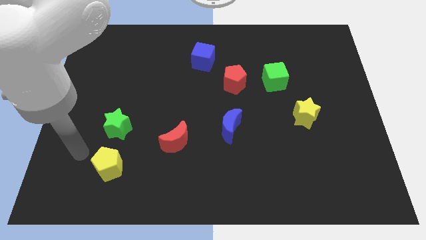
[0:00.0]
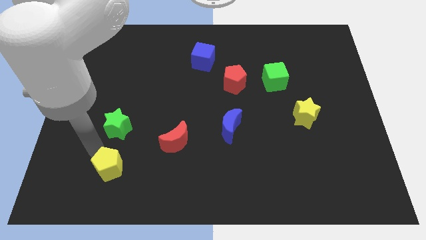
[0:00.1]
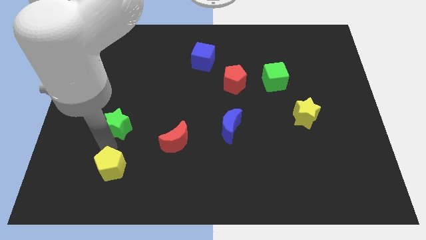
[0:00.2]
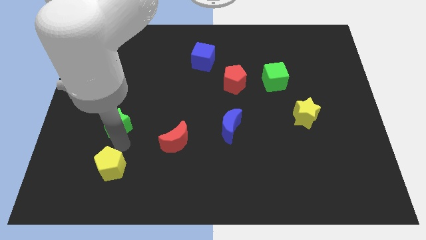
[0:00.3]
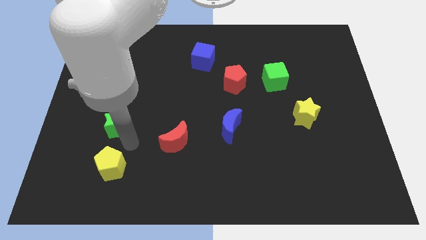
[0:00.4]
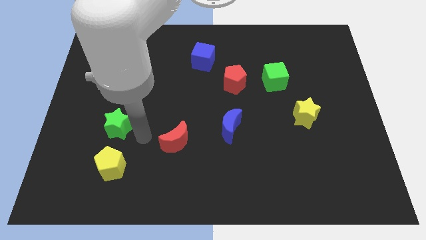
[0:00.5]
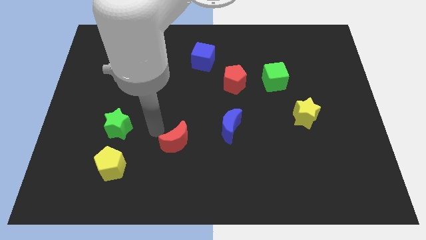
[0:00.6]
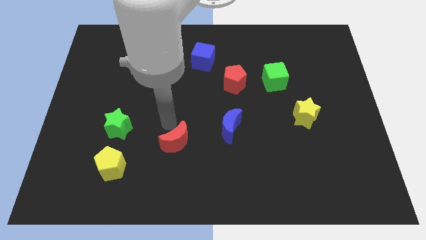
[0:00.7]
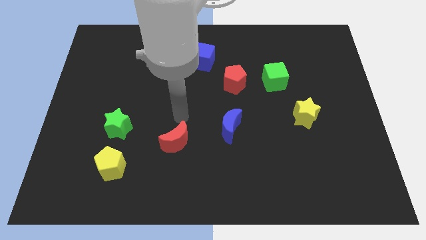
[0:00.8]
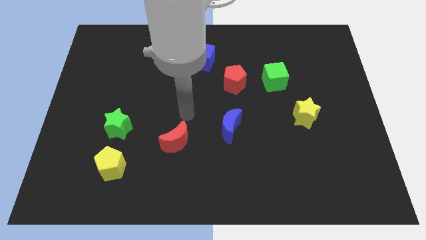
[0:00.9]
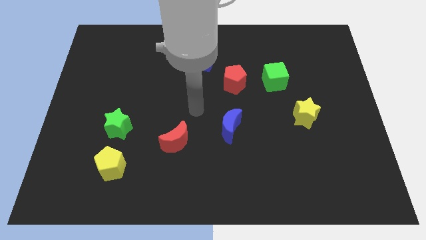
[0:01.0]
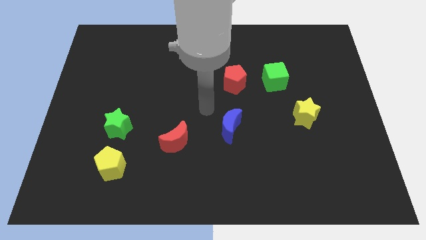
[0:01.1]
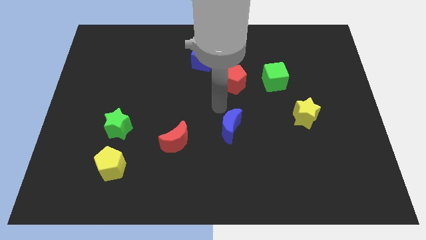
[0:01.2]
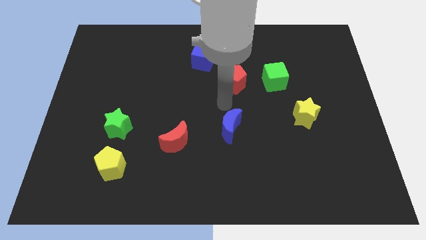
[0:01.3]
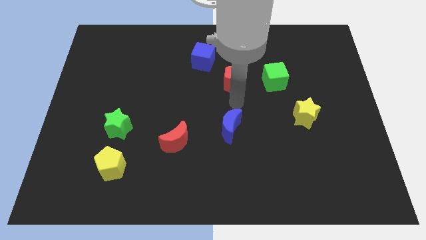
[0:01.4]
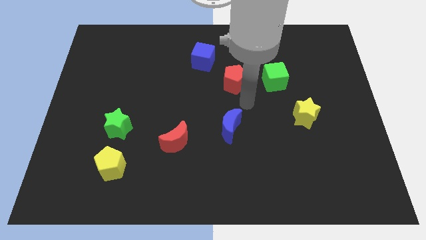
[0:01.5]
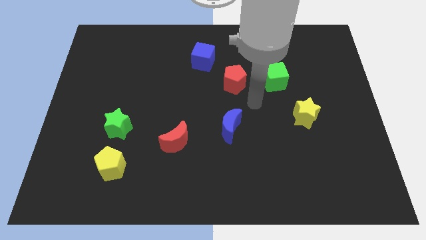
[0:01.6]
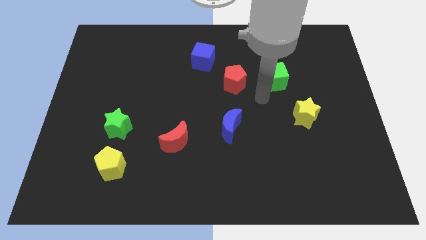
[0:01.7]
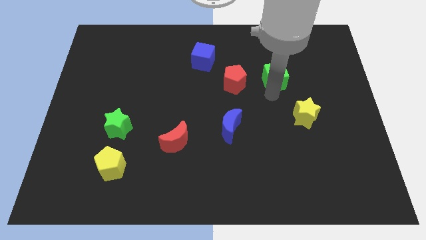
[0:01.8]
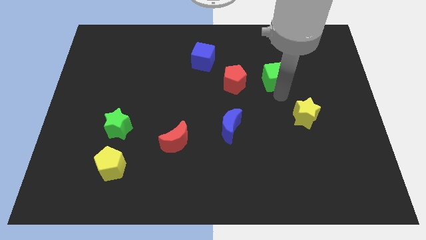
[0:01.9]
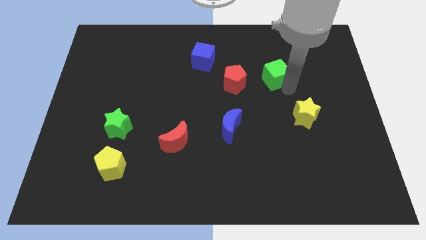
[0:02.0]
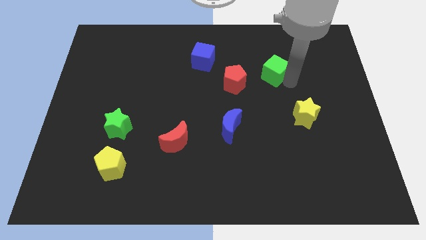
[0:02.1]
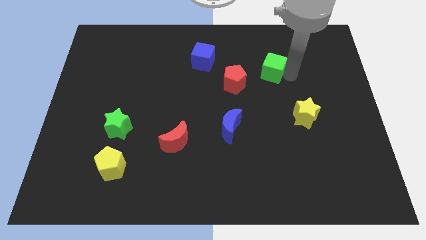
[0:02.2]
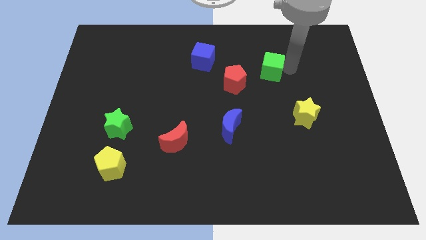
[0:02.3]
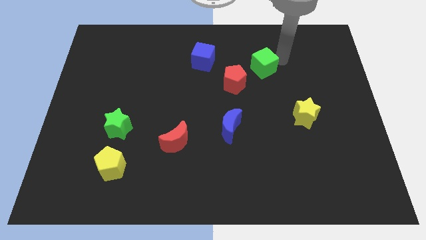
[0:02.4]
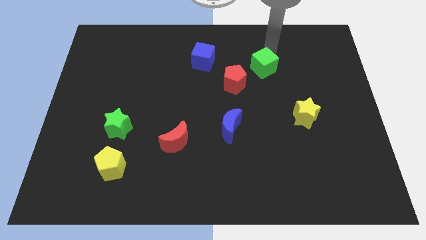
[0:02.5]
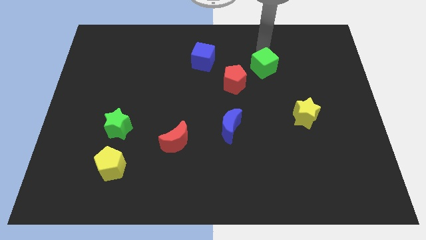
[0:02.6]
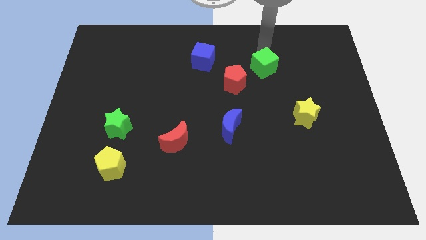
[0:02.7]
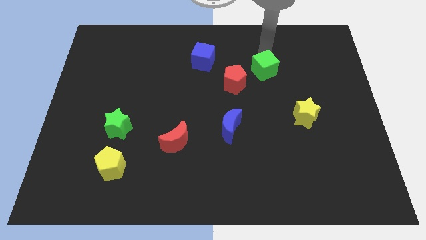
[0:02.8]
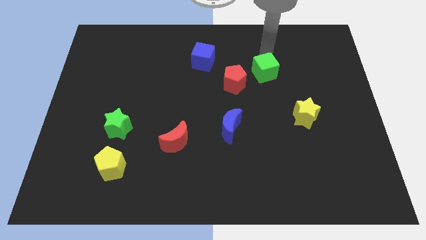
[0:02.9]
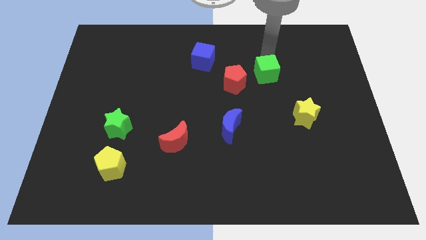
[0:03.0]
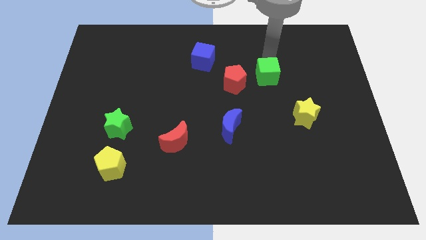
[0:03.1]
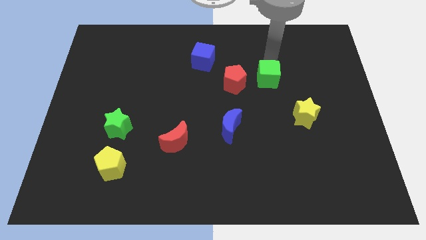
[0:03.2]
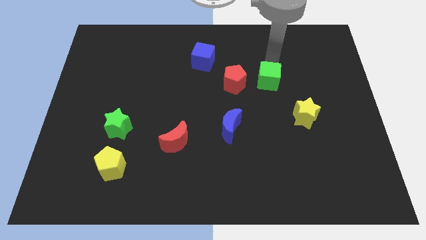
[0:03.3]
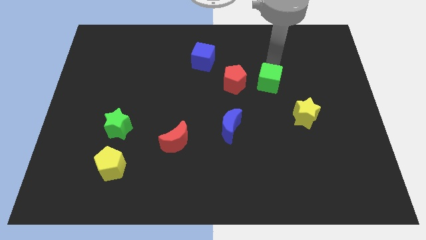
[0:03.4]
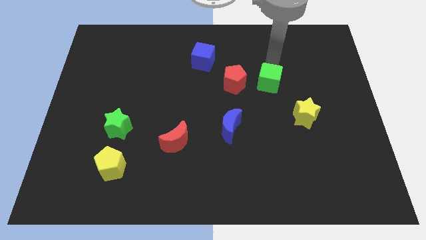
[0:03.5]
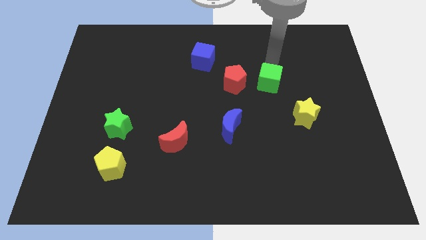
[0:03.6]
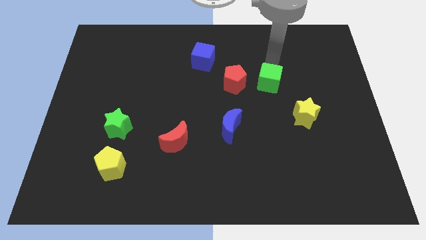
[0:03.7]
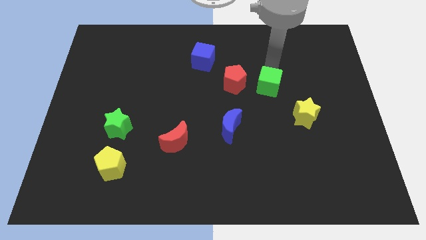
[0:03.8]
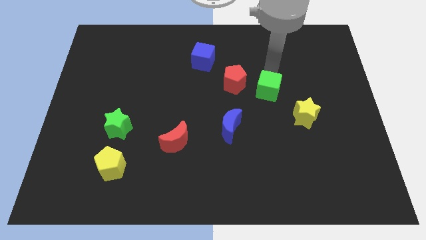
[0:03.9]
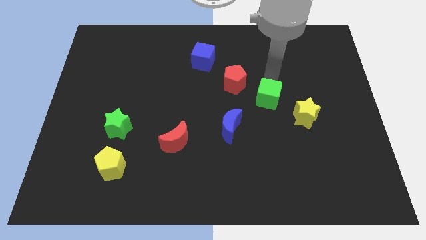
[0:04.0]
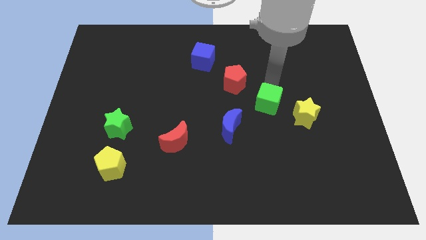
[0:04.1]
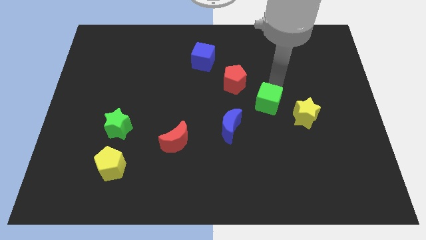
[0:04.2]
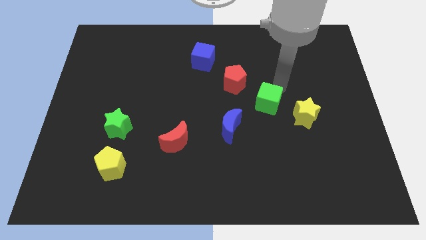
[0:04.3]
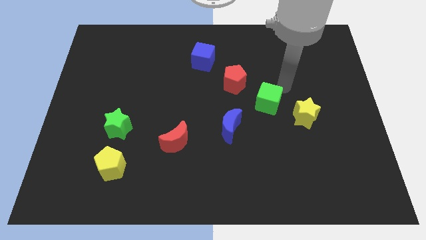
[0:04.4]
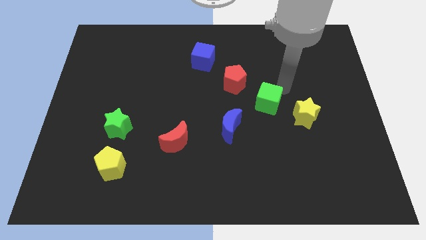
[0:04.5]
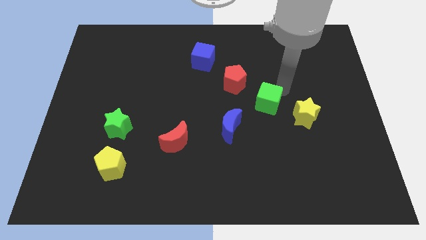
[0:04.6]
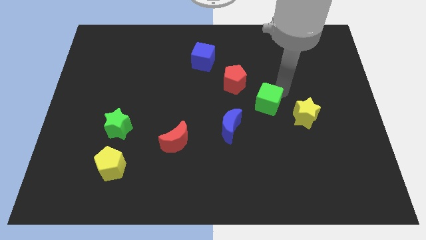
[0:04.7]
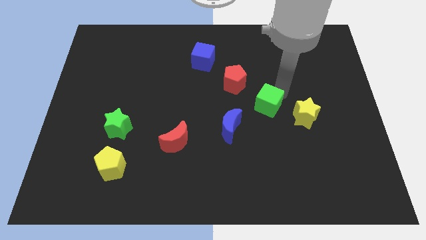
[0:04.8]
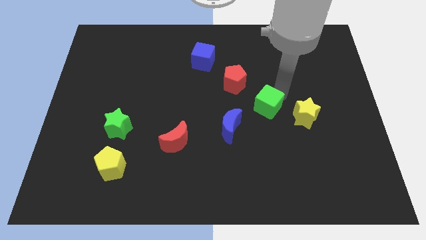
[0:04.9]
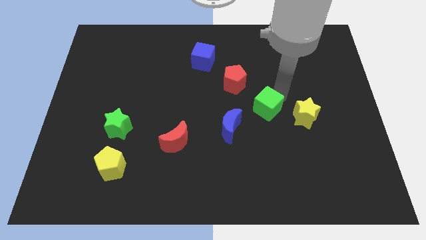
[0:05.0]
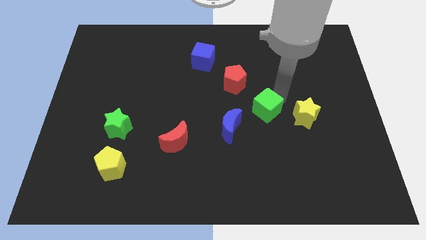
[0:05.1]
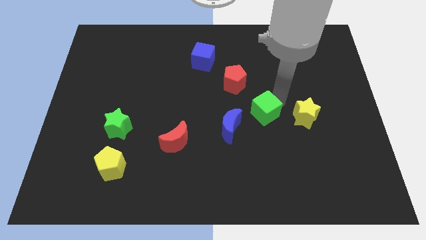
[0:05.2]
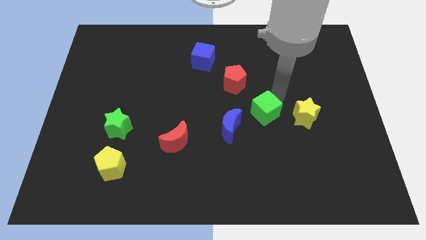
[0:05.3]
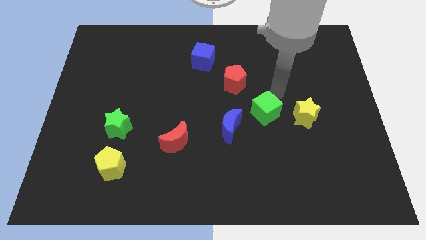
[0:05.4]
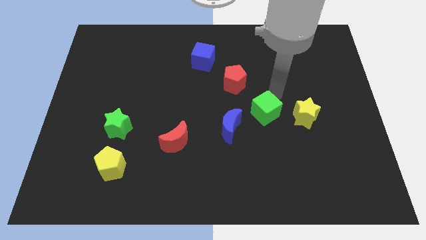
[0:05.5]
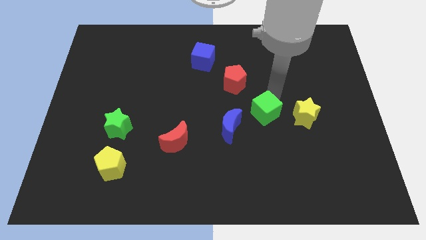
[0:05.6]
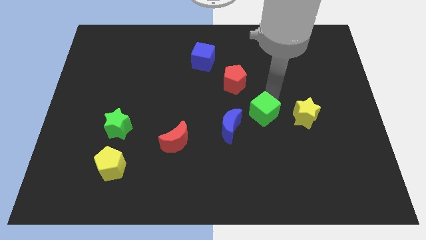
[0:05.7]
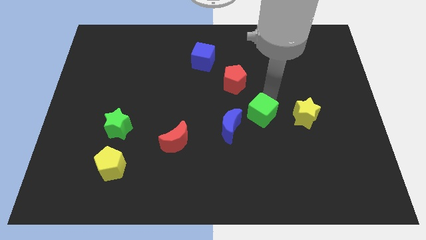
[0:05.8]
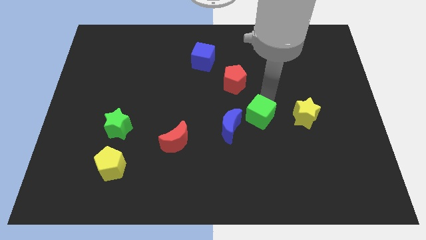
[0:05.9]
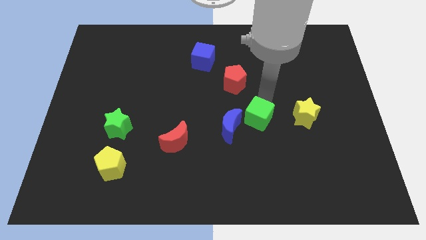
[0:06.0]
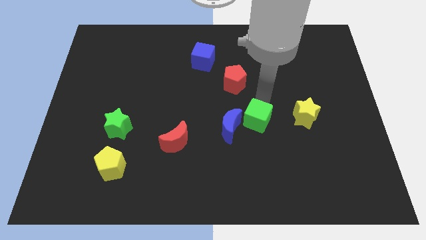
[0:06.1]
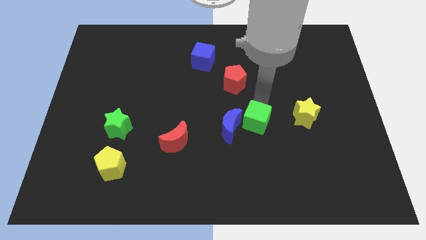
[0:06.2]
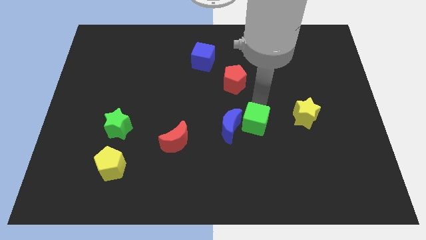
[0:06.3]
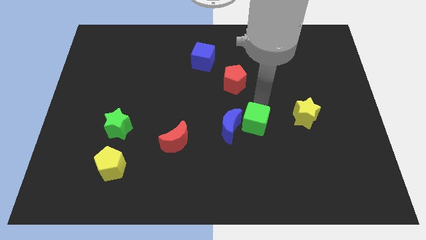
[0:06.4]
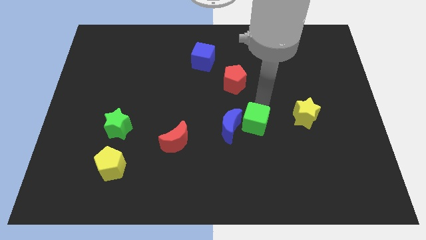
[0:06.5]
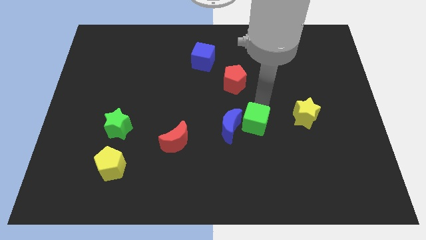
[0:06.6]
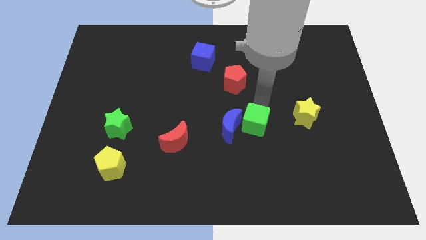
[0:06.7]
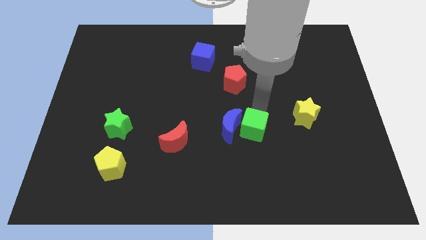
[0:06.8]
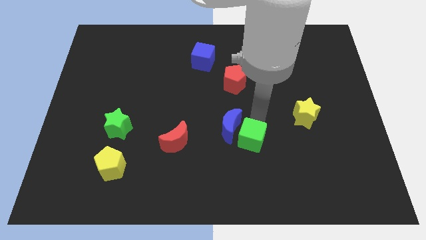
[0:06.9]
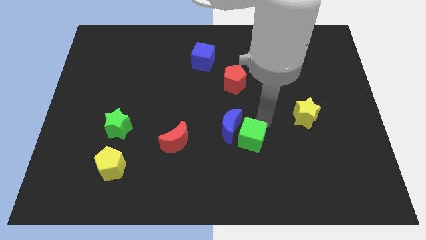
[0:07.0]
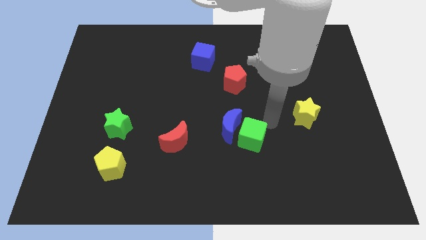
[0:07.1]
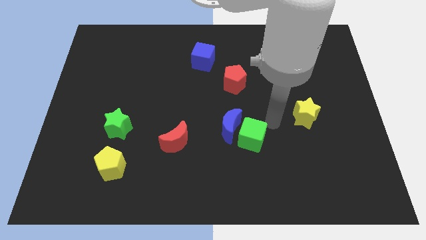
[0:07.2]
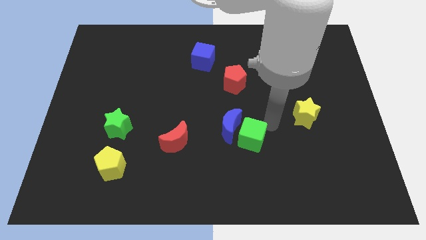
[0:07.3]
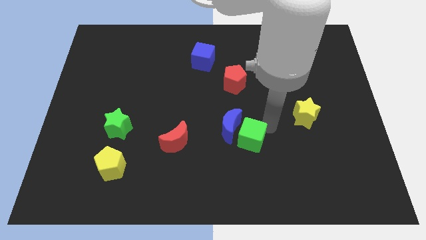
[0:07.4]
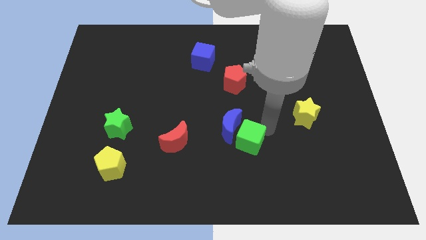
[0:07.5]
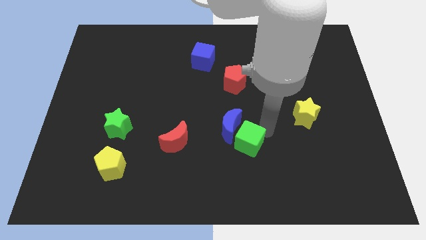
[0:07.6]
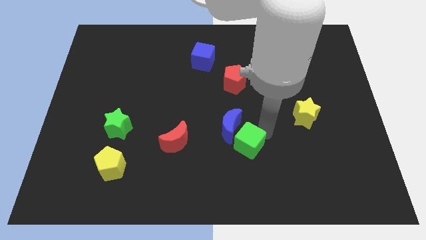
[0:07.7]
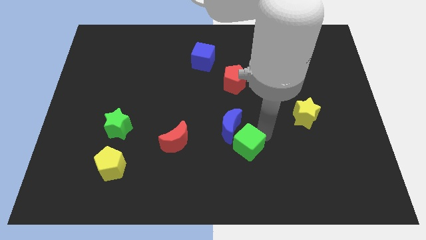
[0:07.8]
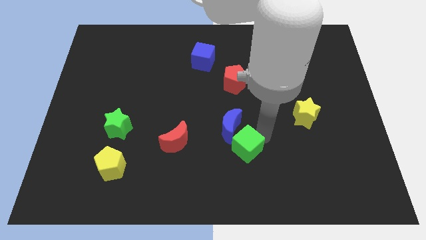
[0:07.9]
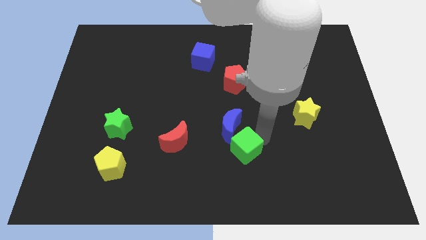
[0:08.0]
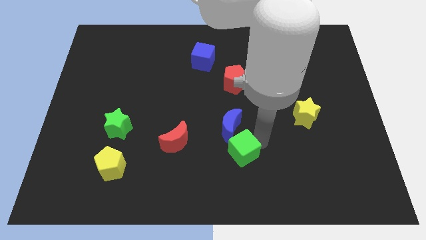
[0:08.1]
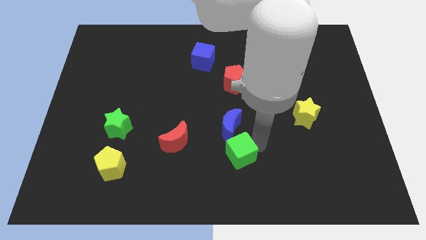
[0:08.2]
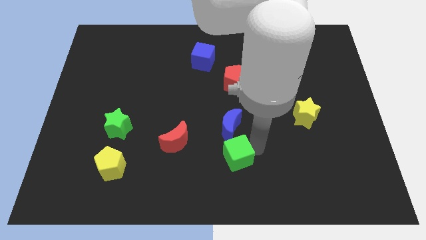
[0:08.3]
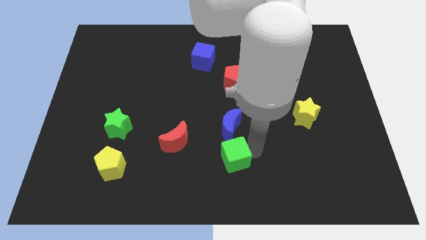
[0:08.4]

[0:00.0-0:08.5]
move the green cube downwards and then left
